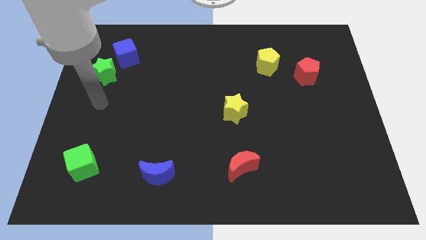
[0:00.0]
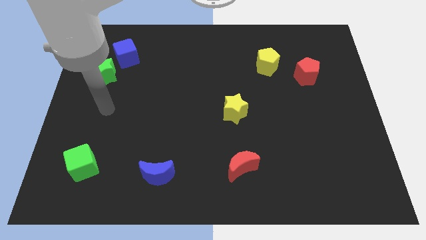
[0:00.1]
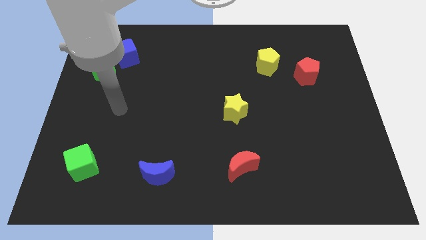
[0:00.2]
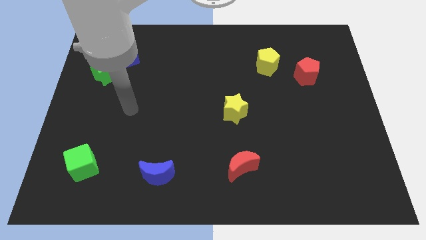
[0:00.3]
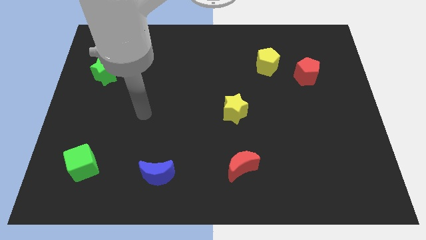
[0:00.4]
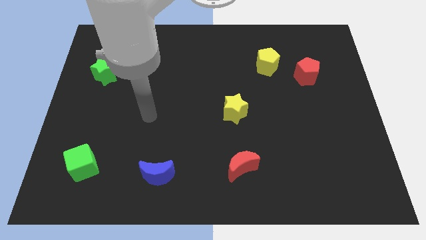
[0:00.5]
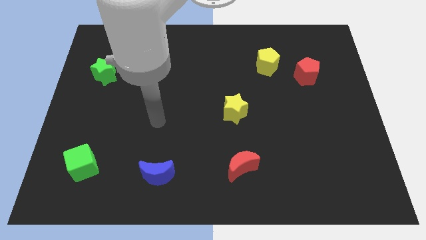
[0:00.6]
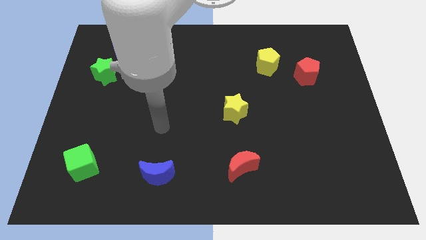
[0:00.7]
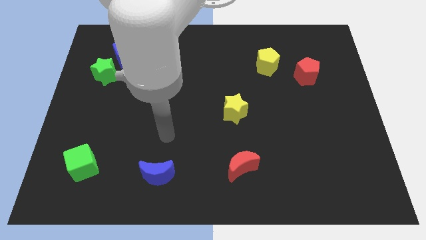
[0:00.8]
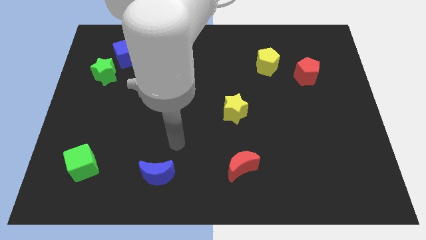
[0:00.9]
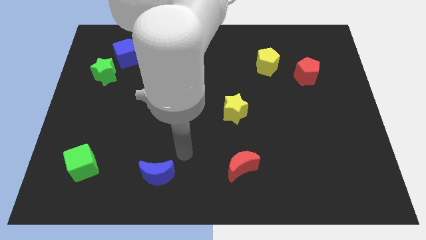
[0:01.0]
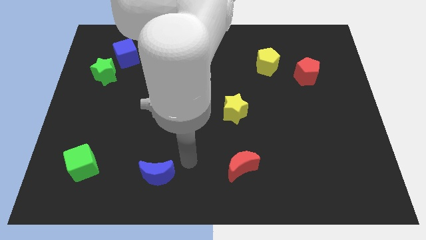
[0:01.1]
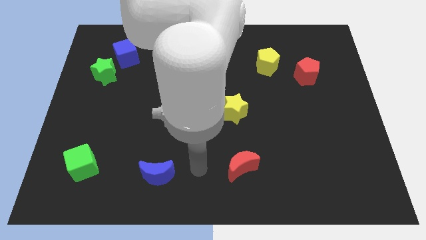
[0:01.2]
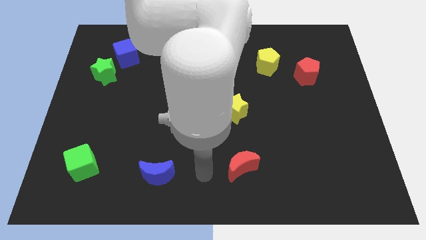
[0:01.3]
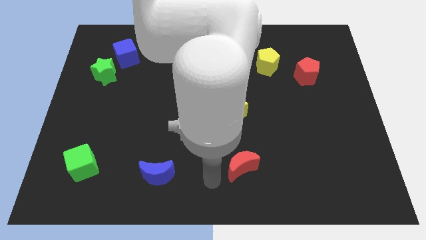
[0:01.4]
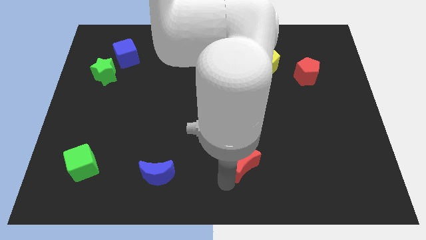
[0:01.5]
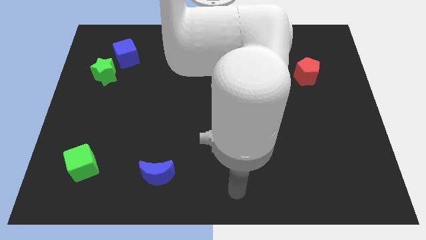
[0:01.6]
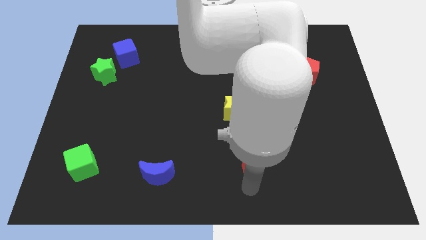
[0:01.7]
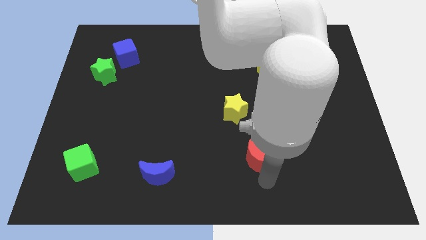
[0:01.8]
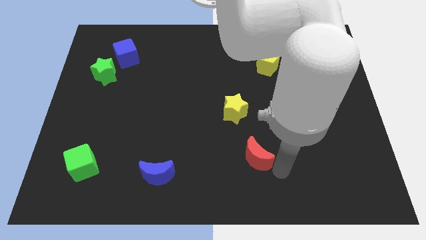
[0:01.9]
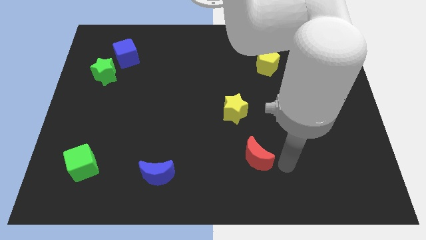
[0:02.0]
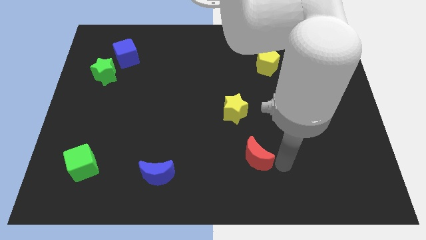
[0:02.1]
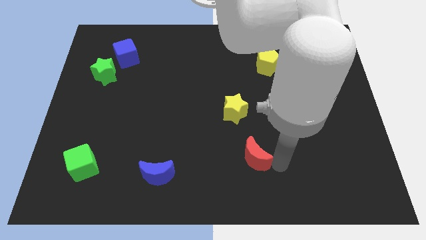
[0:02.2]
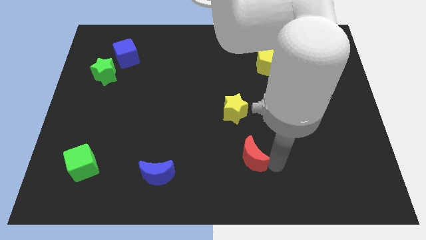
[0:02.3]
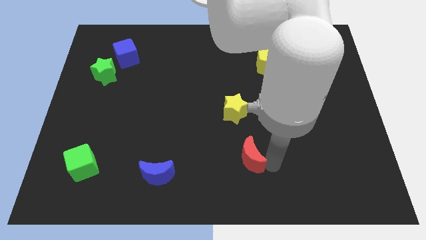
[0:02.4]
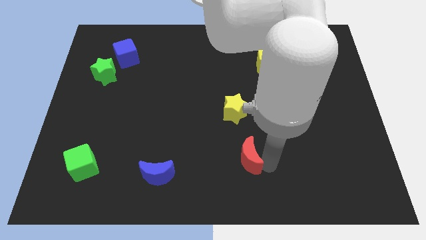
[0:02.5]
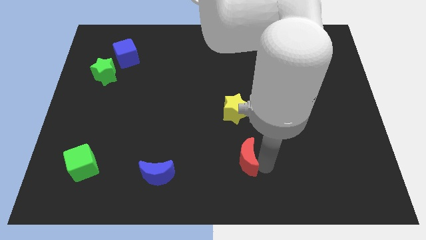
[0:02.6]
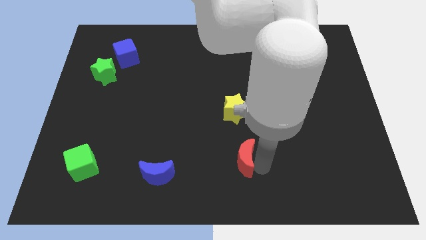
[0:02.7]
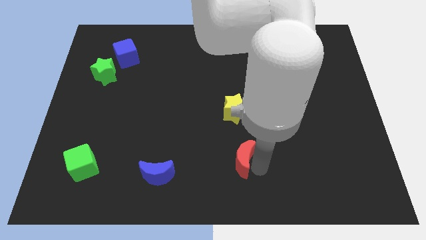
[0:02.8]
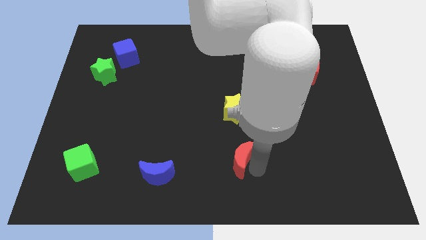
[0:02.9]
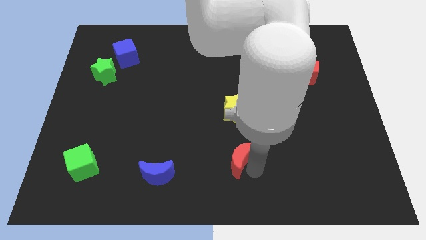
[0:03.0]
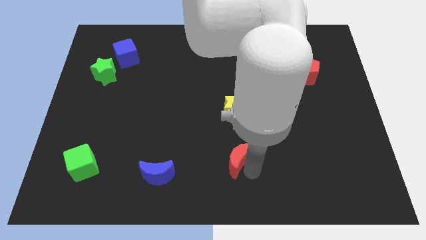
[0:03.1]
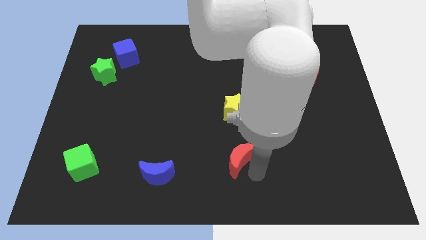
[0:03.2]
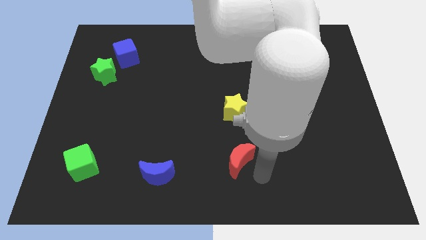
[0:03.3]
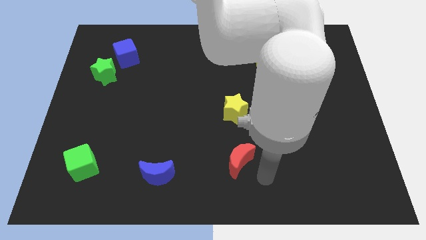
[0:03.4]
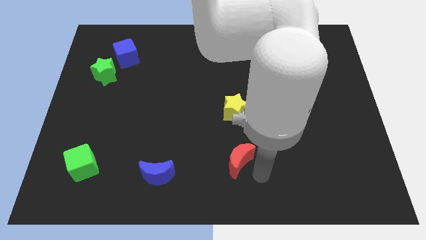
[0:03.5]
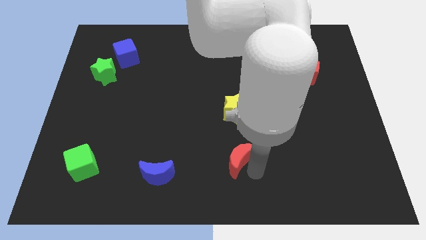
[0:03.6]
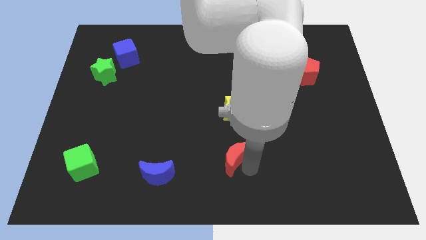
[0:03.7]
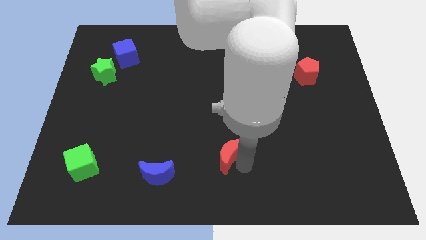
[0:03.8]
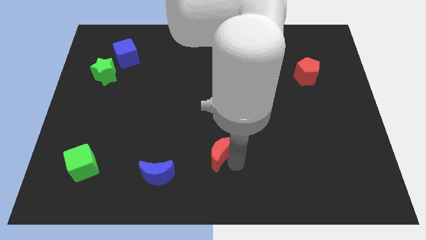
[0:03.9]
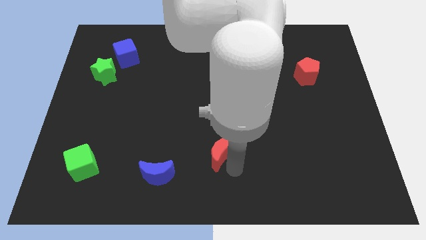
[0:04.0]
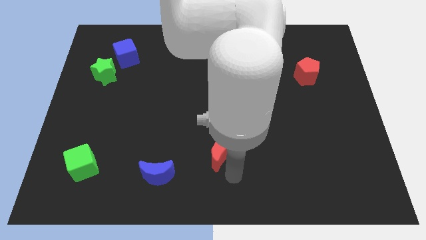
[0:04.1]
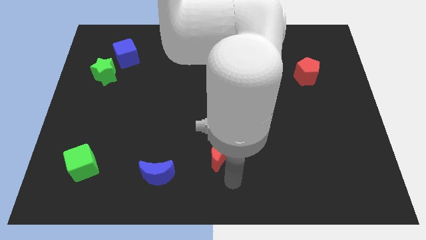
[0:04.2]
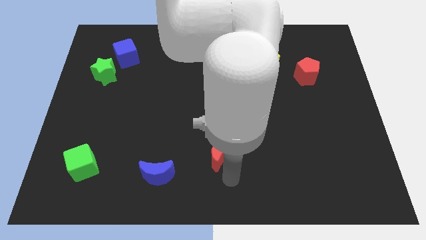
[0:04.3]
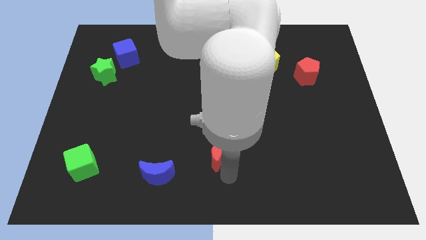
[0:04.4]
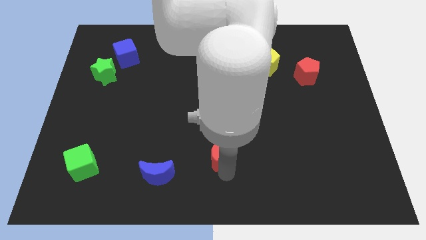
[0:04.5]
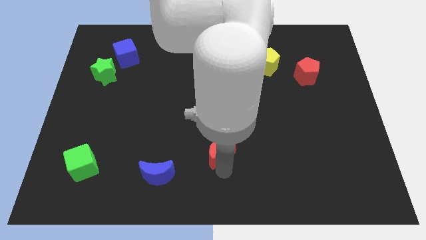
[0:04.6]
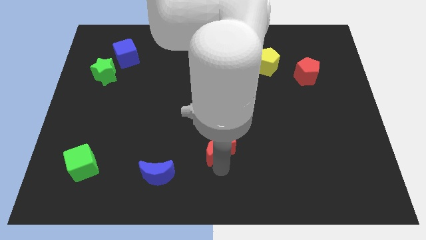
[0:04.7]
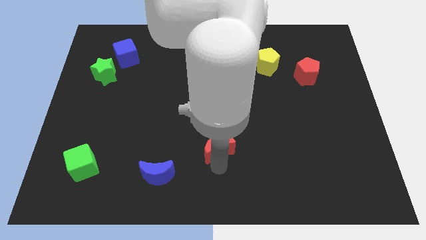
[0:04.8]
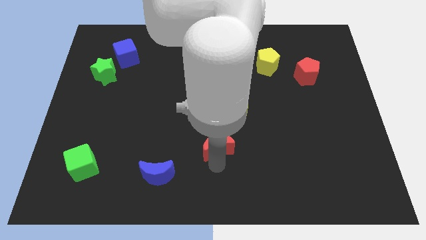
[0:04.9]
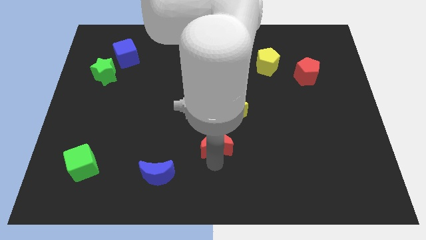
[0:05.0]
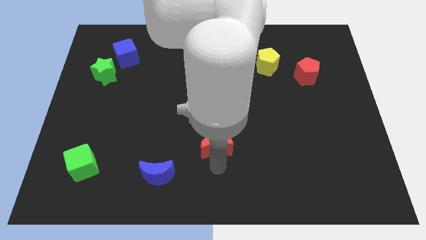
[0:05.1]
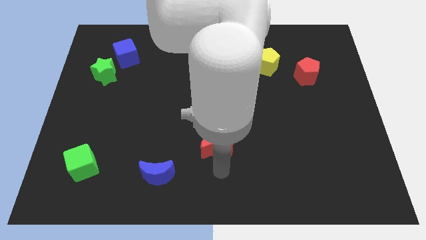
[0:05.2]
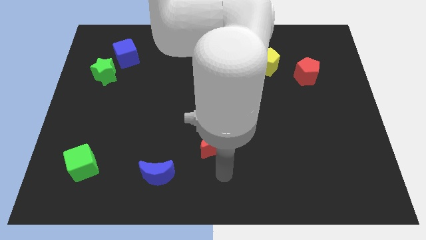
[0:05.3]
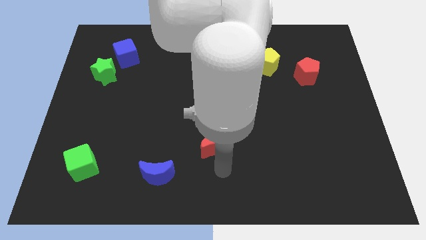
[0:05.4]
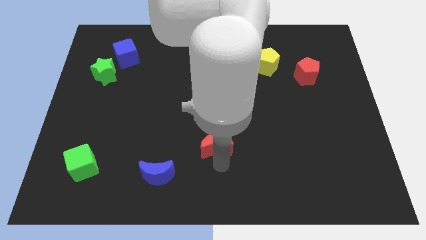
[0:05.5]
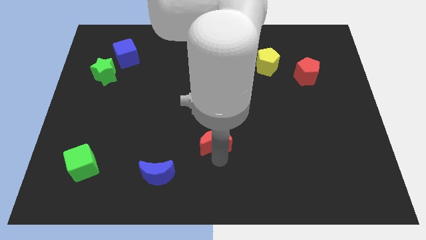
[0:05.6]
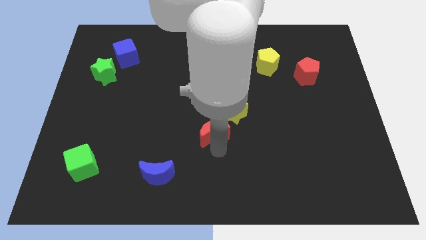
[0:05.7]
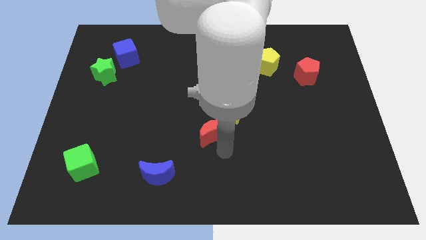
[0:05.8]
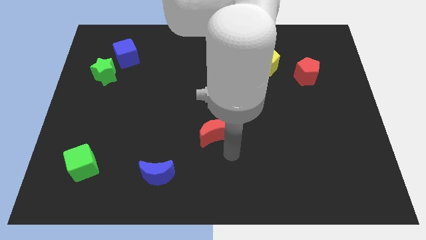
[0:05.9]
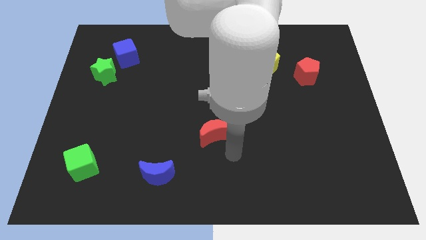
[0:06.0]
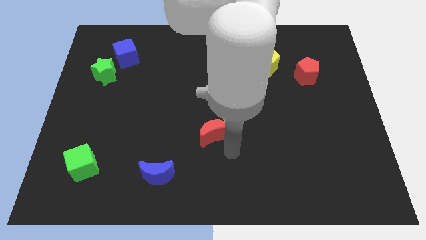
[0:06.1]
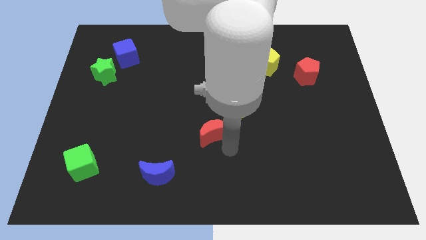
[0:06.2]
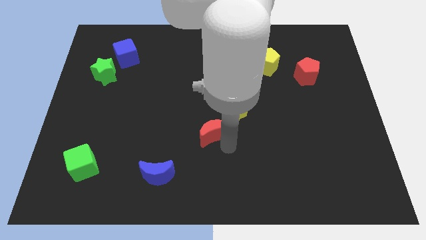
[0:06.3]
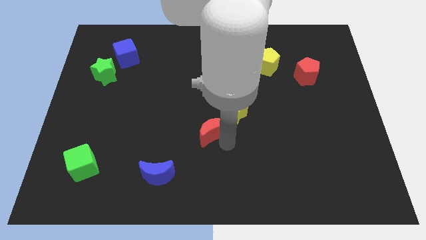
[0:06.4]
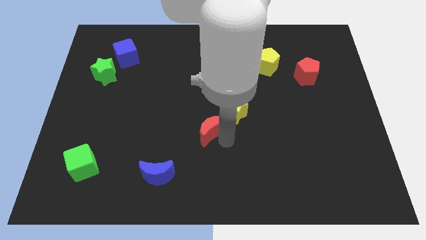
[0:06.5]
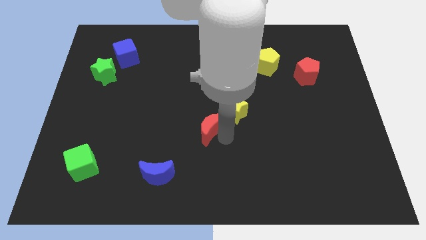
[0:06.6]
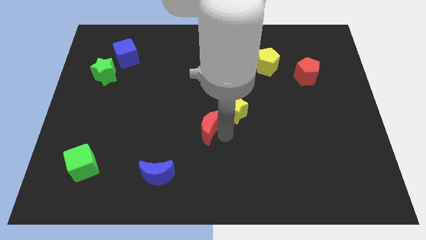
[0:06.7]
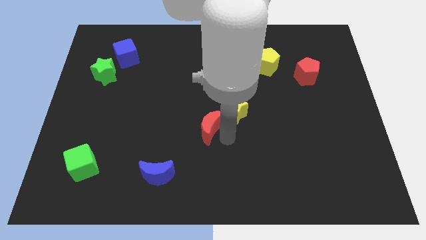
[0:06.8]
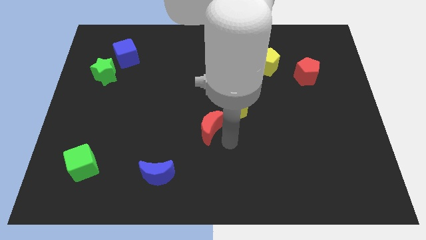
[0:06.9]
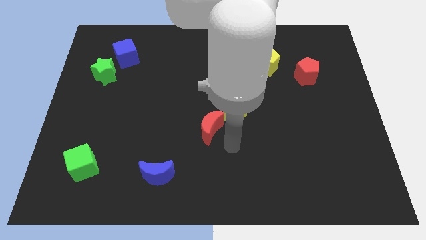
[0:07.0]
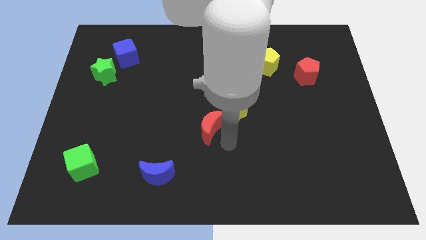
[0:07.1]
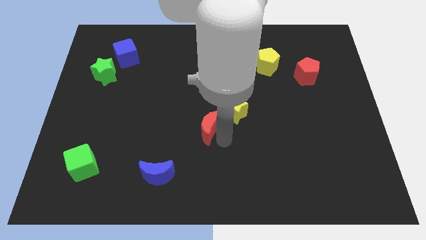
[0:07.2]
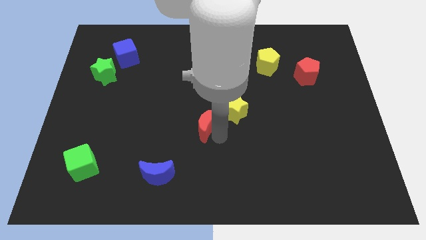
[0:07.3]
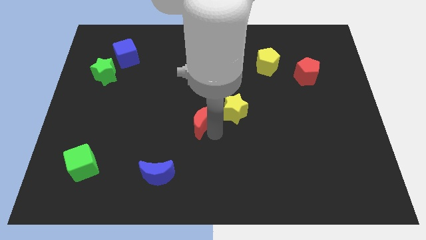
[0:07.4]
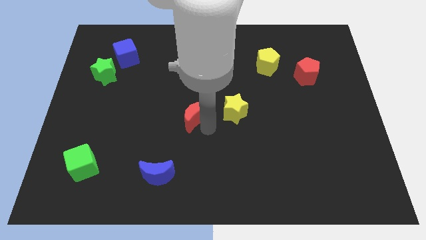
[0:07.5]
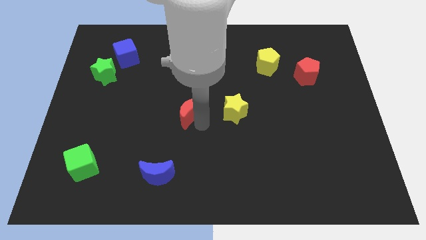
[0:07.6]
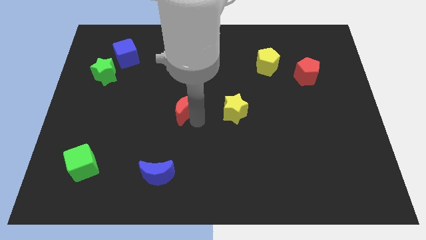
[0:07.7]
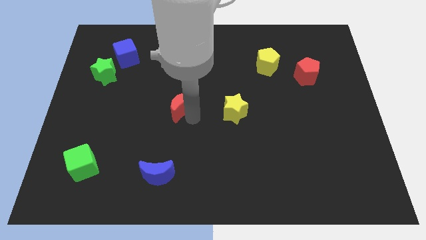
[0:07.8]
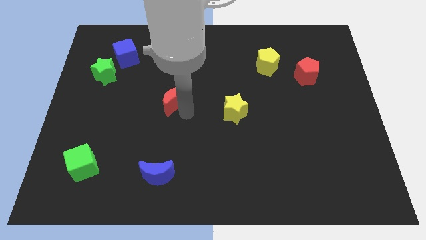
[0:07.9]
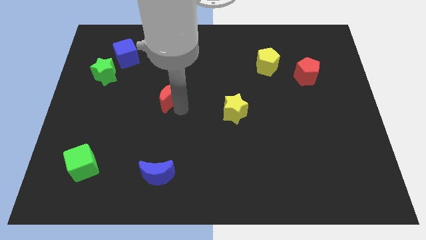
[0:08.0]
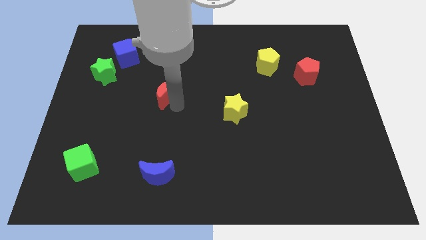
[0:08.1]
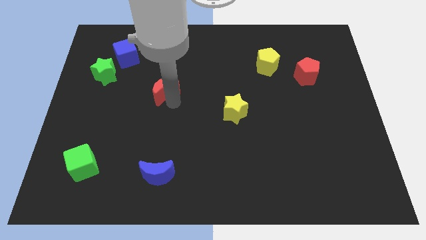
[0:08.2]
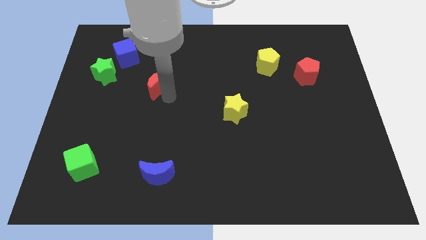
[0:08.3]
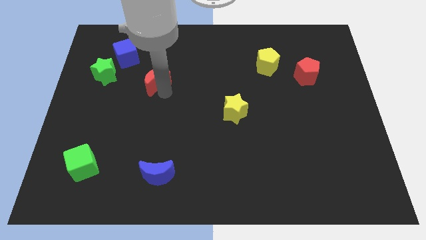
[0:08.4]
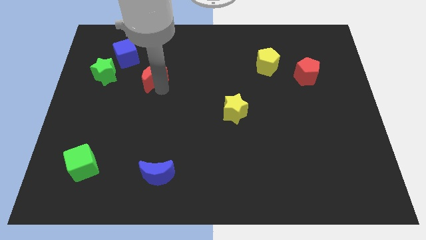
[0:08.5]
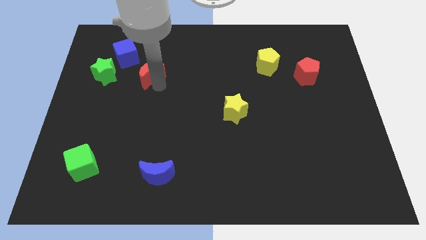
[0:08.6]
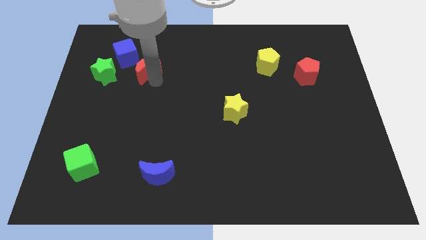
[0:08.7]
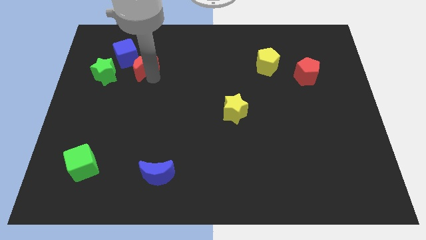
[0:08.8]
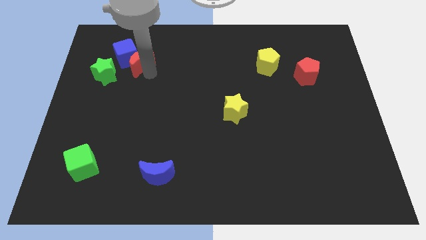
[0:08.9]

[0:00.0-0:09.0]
put the red moon to the blue cube
